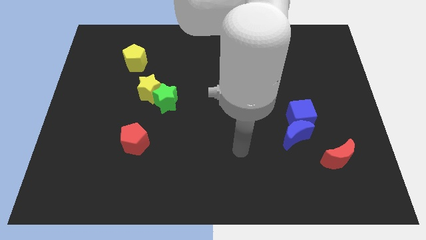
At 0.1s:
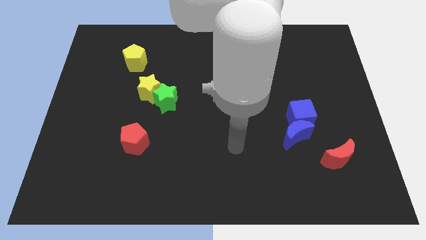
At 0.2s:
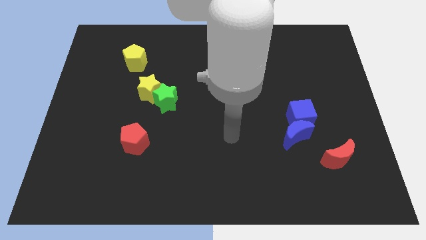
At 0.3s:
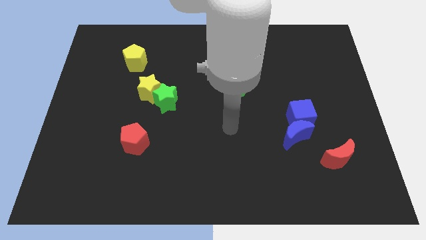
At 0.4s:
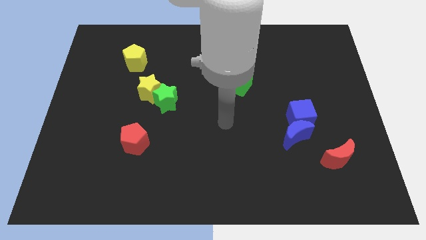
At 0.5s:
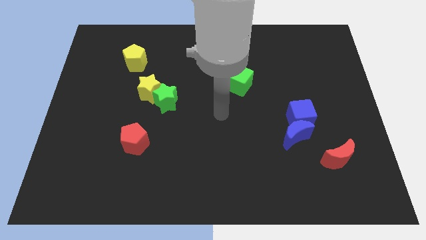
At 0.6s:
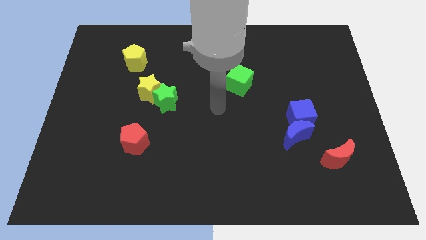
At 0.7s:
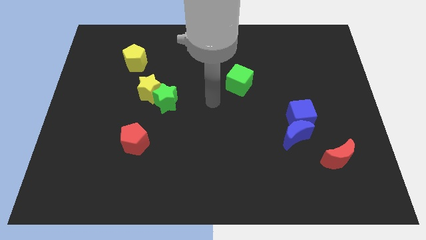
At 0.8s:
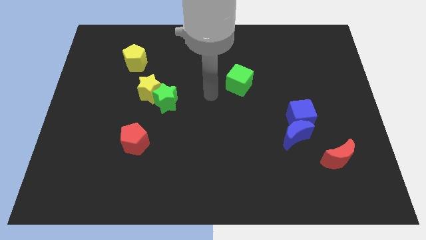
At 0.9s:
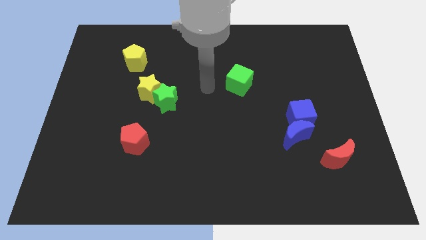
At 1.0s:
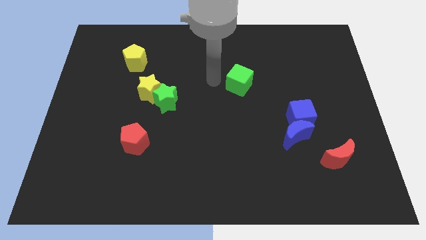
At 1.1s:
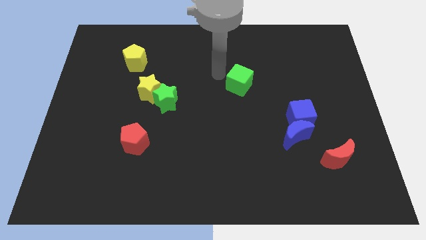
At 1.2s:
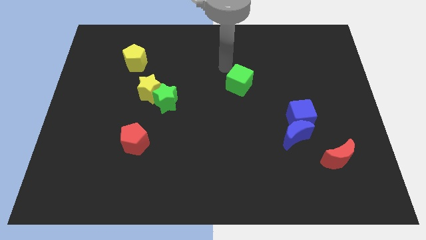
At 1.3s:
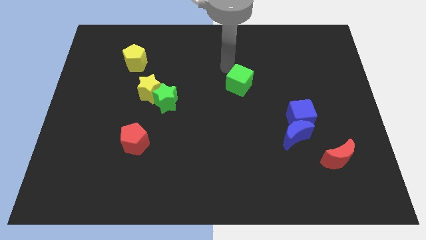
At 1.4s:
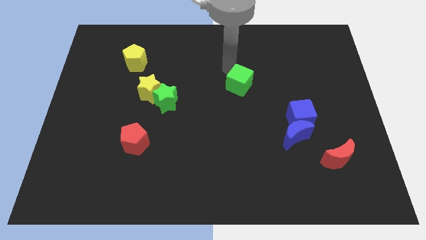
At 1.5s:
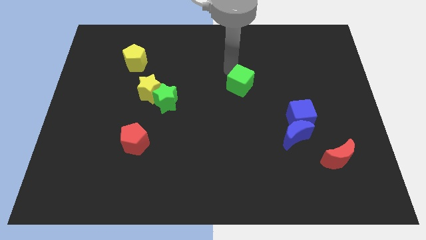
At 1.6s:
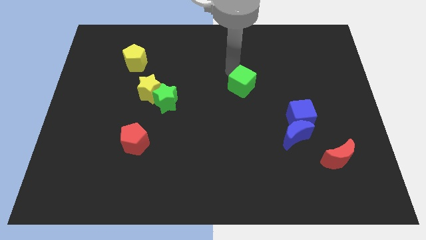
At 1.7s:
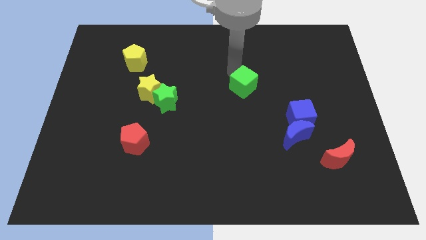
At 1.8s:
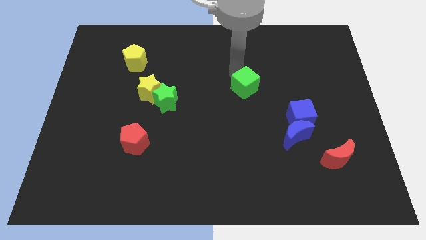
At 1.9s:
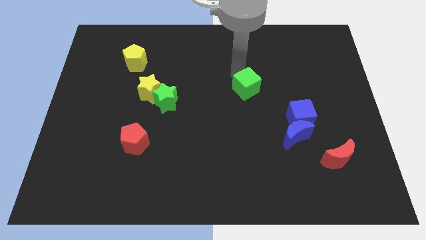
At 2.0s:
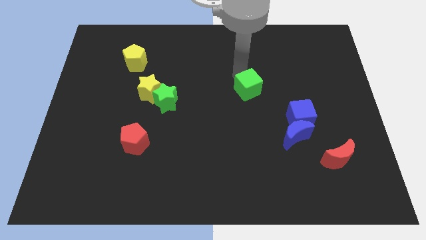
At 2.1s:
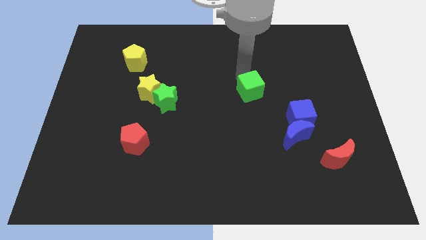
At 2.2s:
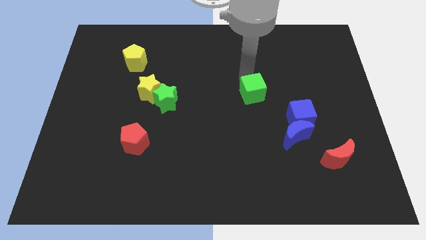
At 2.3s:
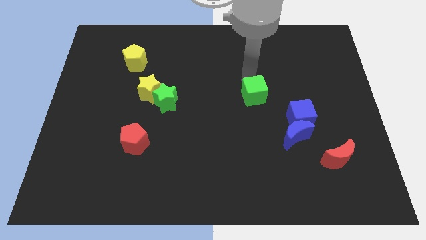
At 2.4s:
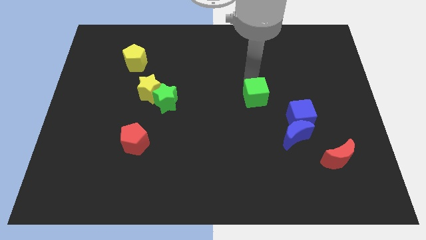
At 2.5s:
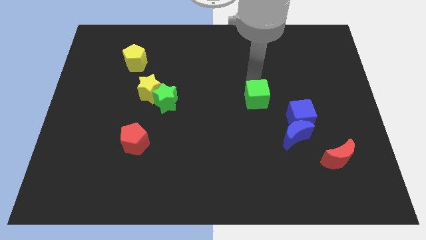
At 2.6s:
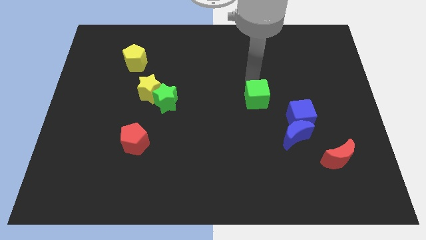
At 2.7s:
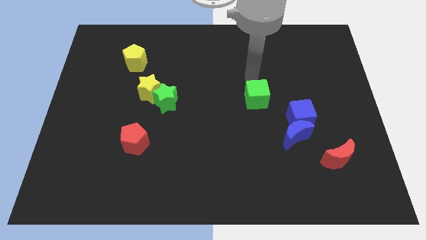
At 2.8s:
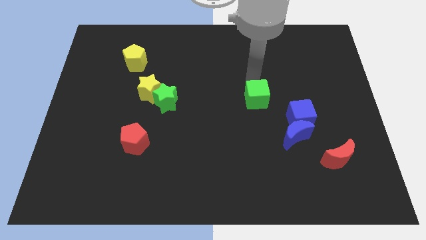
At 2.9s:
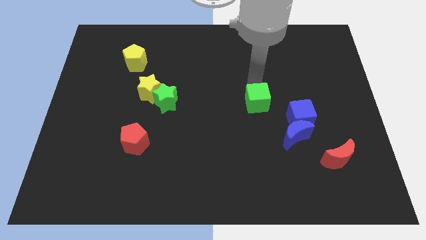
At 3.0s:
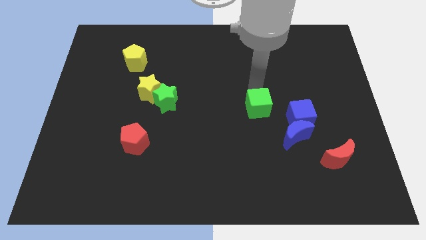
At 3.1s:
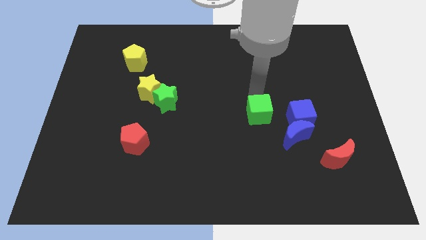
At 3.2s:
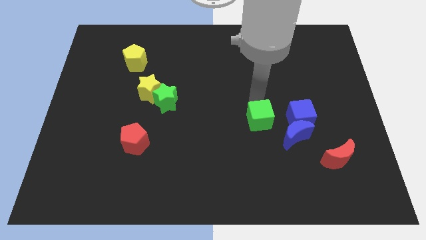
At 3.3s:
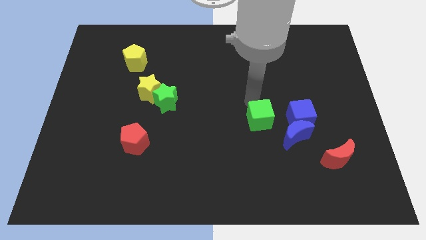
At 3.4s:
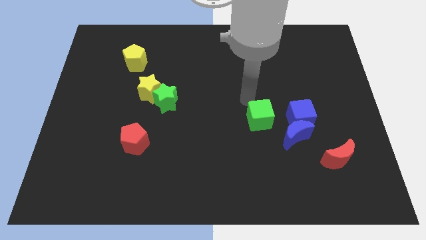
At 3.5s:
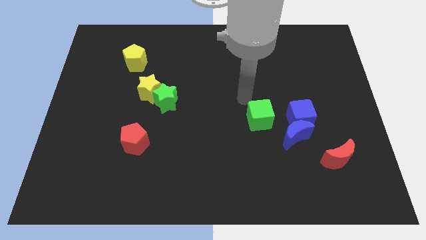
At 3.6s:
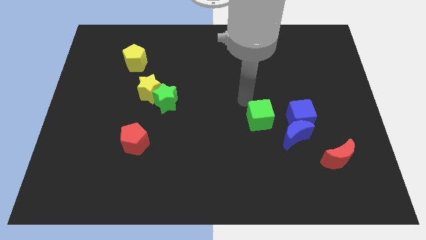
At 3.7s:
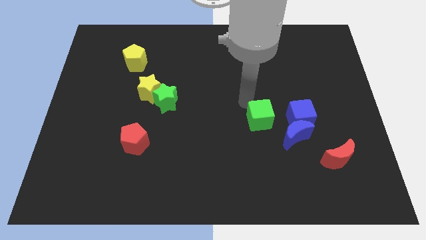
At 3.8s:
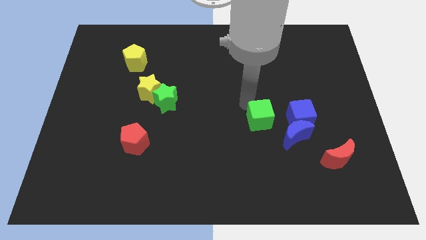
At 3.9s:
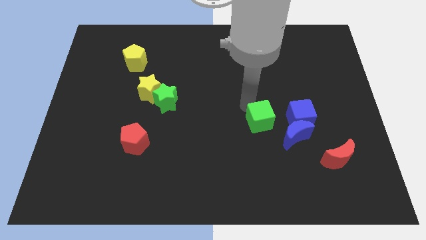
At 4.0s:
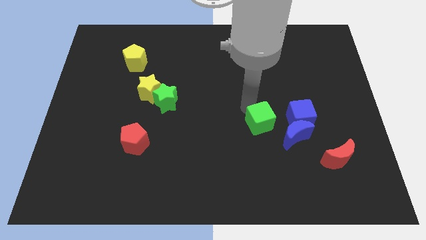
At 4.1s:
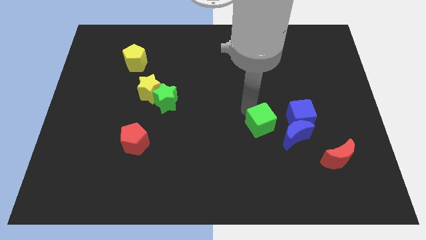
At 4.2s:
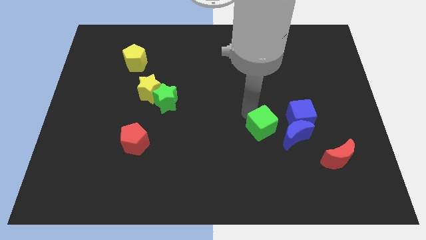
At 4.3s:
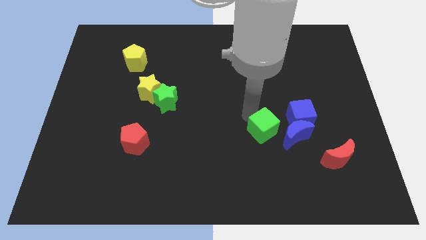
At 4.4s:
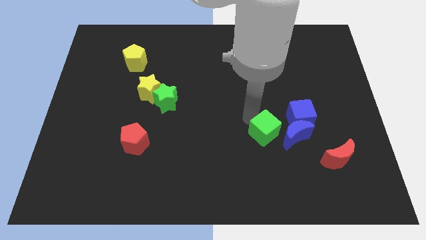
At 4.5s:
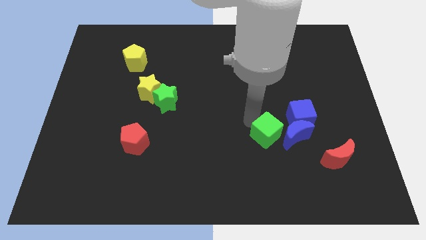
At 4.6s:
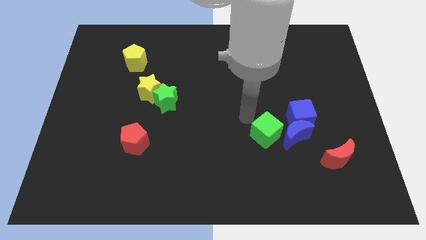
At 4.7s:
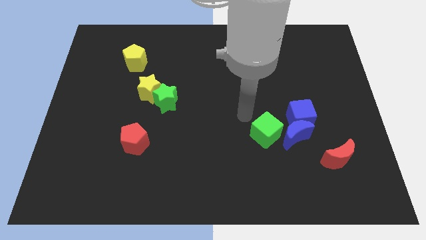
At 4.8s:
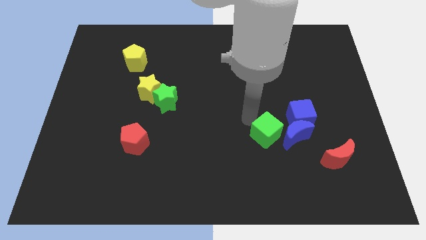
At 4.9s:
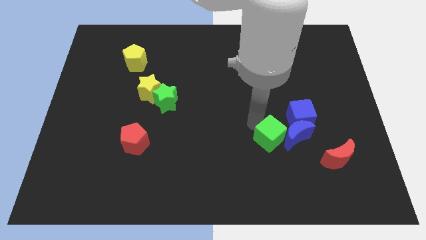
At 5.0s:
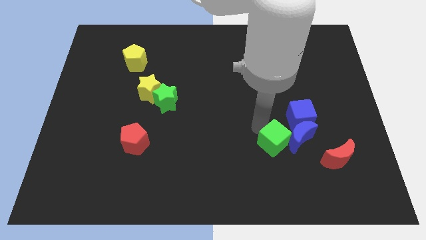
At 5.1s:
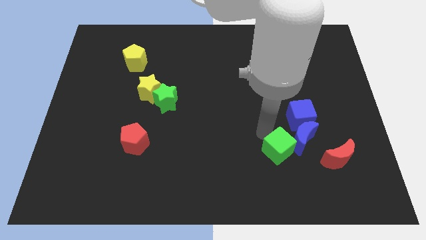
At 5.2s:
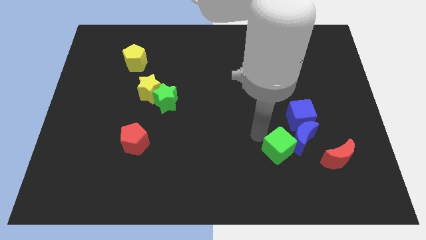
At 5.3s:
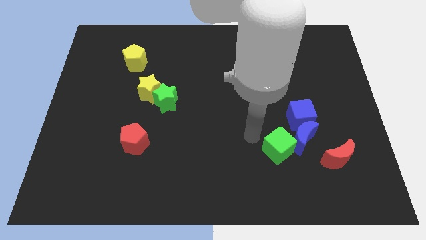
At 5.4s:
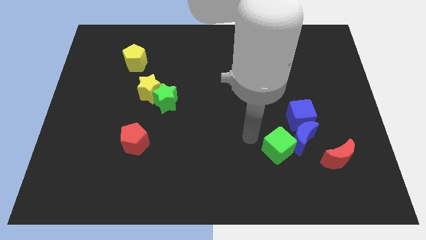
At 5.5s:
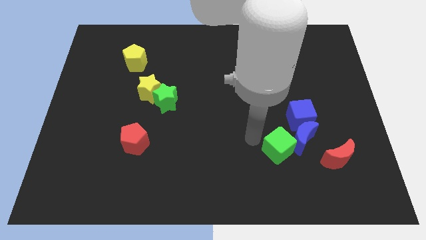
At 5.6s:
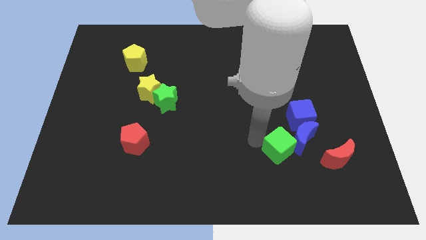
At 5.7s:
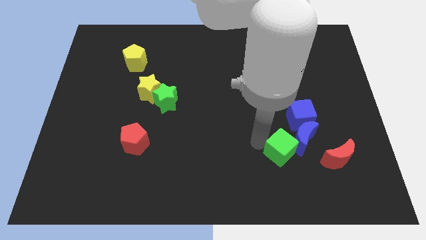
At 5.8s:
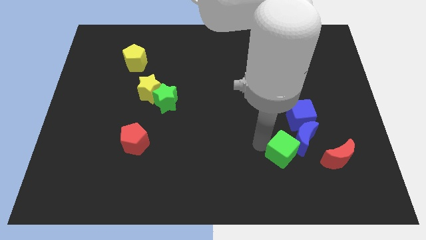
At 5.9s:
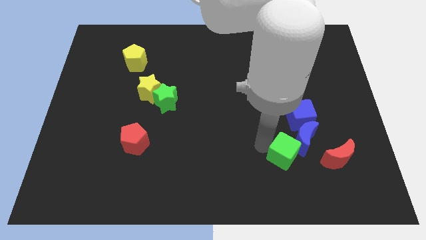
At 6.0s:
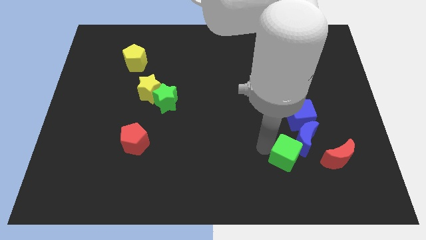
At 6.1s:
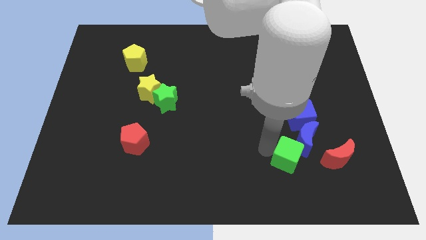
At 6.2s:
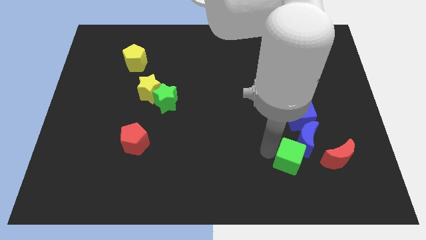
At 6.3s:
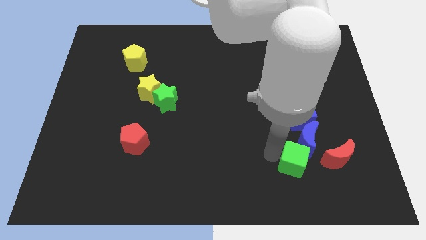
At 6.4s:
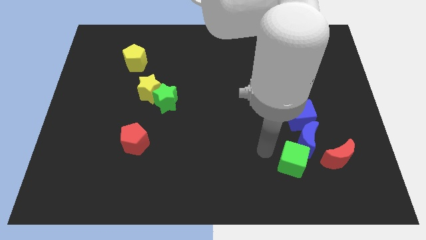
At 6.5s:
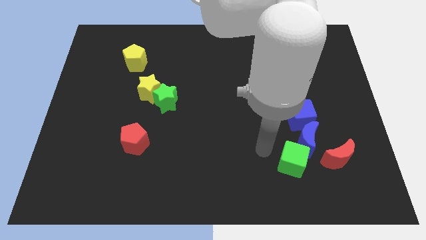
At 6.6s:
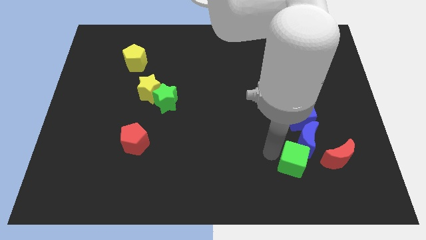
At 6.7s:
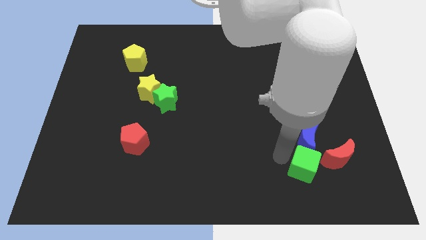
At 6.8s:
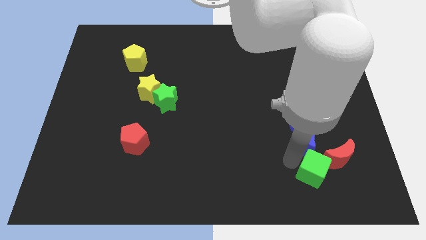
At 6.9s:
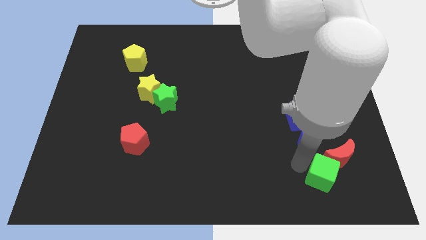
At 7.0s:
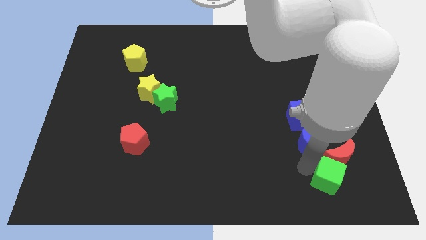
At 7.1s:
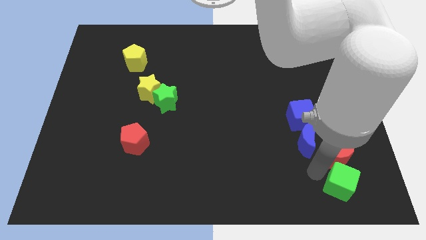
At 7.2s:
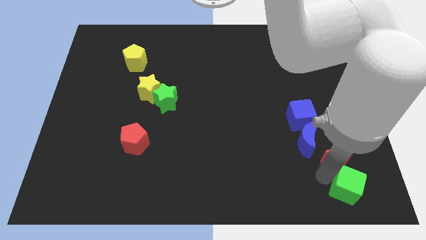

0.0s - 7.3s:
move the green cube to the bottom right of the board

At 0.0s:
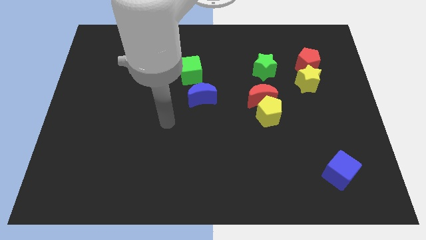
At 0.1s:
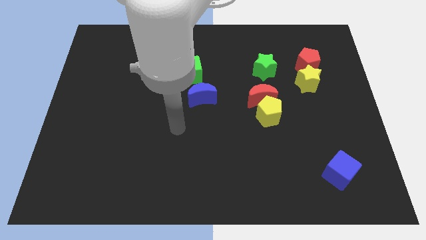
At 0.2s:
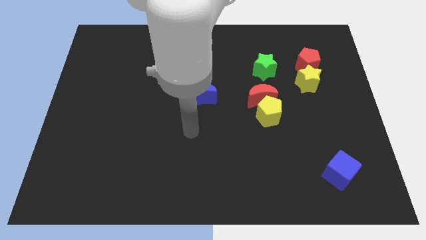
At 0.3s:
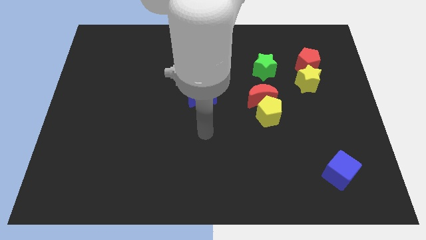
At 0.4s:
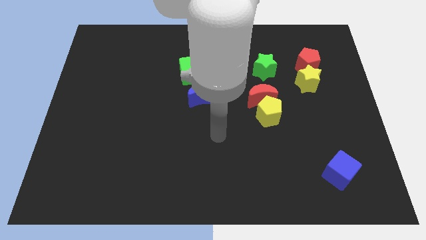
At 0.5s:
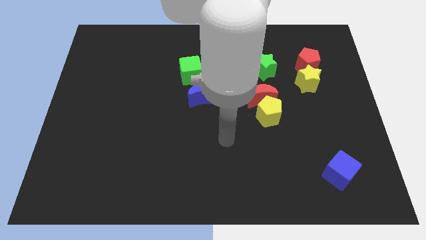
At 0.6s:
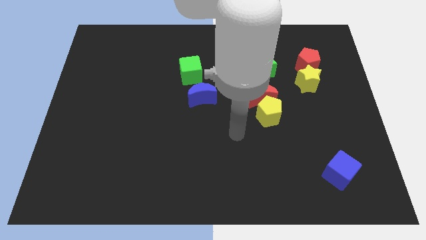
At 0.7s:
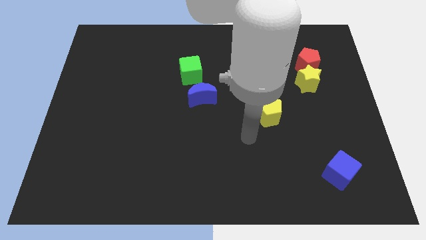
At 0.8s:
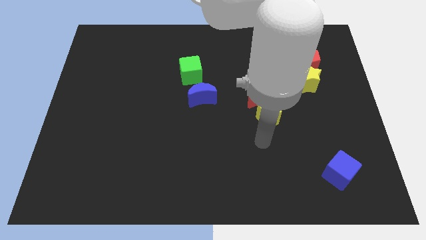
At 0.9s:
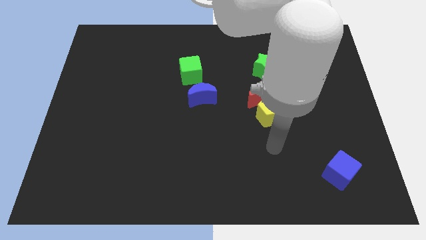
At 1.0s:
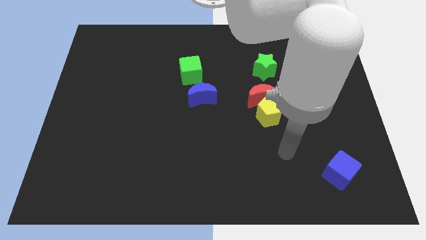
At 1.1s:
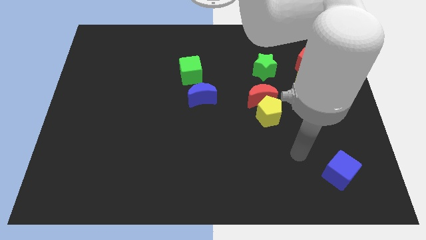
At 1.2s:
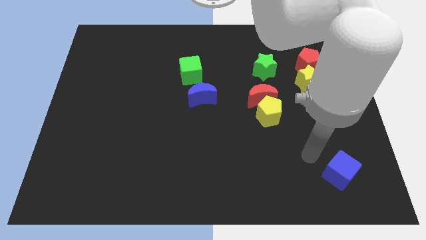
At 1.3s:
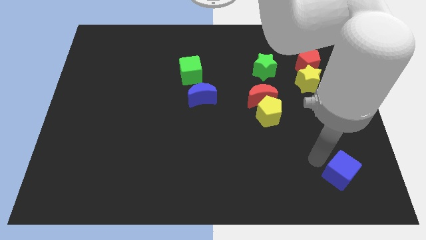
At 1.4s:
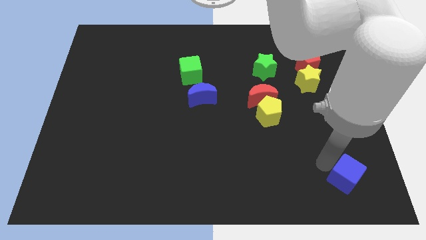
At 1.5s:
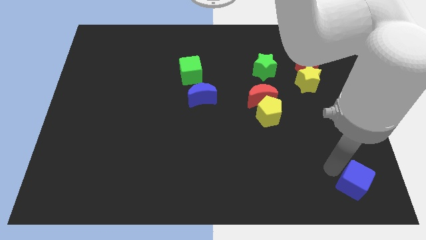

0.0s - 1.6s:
put the blue cube to the bottom right
